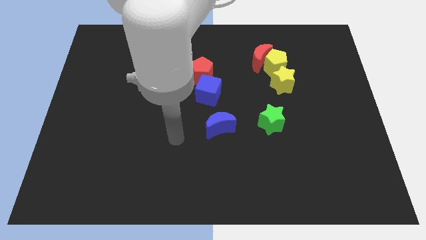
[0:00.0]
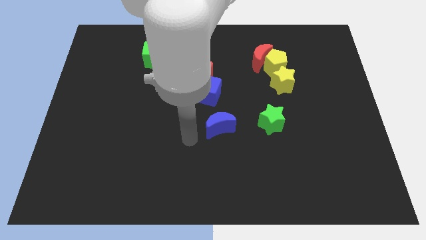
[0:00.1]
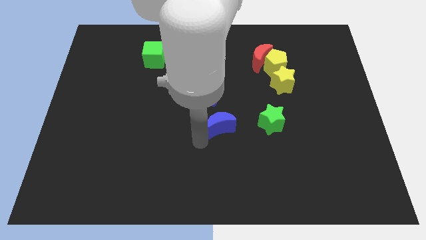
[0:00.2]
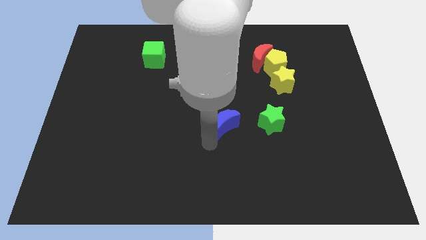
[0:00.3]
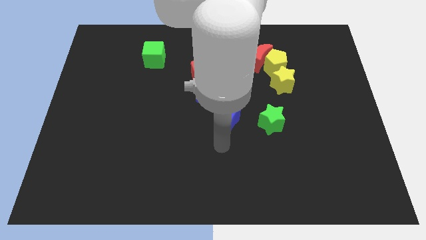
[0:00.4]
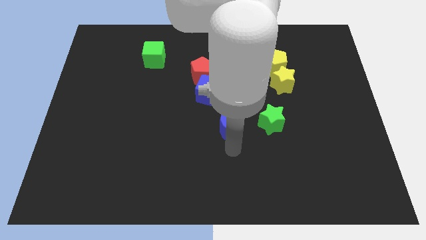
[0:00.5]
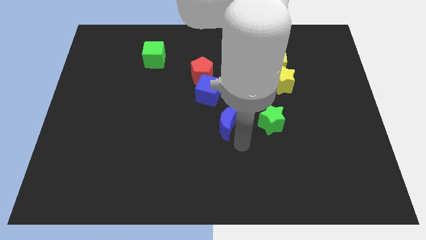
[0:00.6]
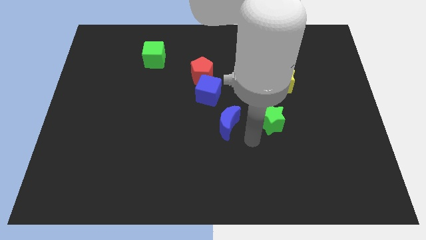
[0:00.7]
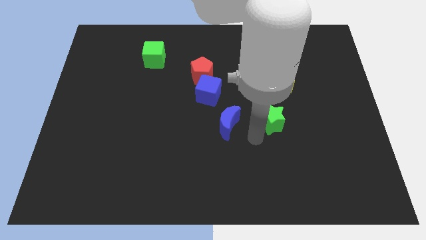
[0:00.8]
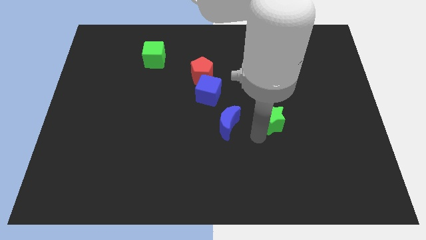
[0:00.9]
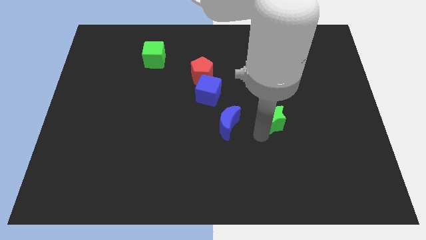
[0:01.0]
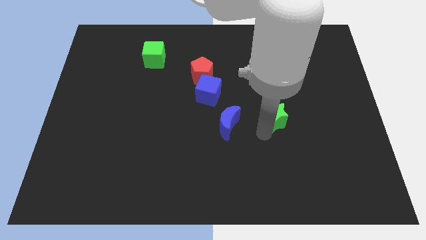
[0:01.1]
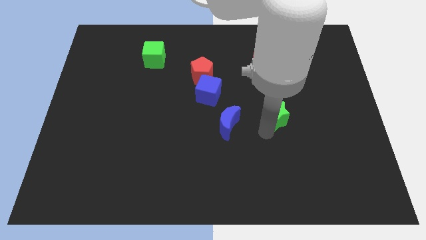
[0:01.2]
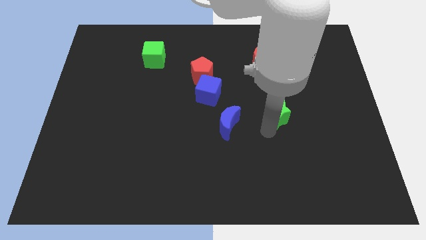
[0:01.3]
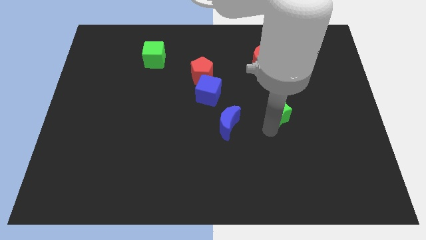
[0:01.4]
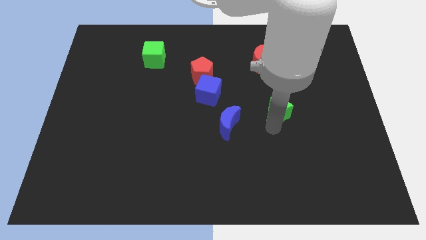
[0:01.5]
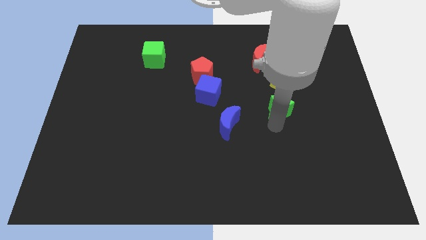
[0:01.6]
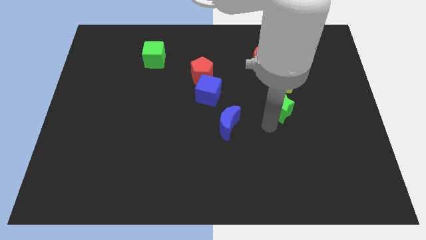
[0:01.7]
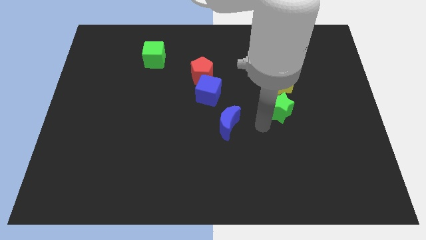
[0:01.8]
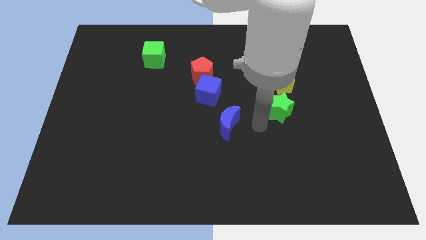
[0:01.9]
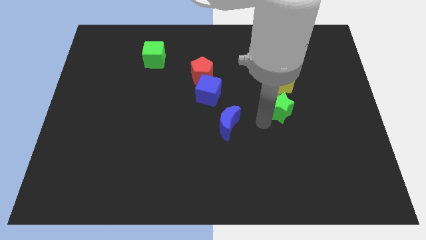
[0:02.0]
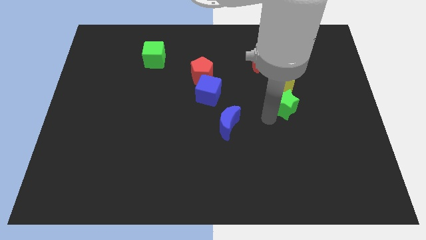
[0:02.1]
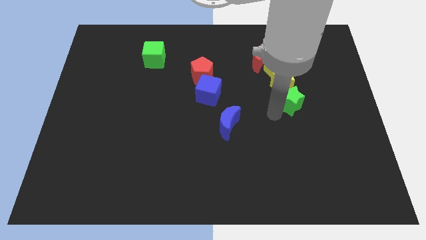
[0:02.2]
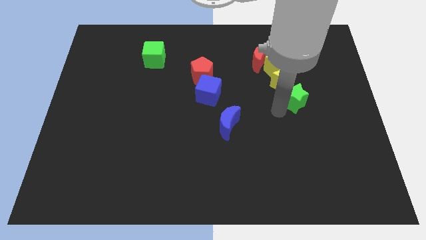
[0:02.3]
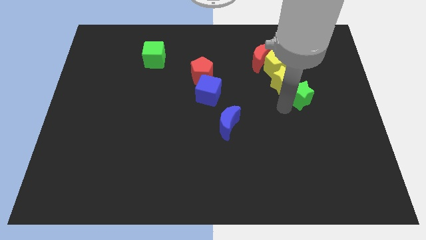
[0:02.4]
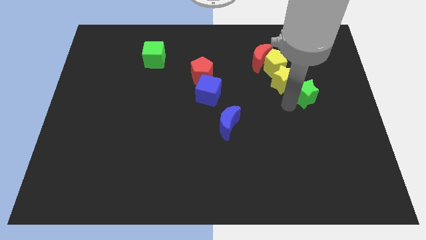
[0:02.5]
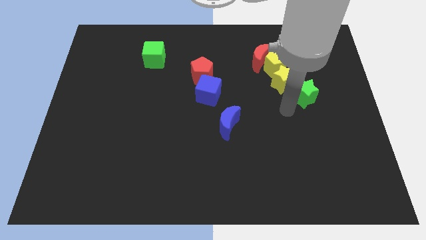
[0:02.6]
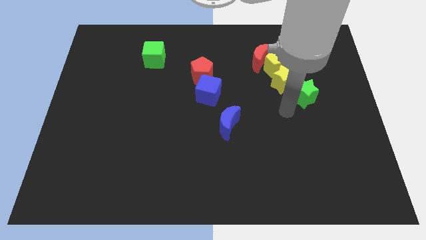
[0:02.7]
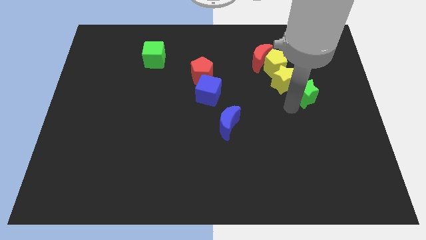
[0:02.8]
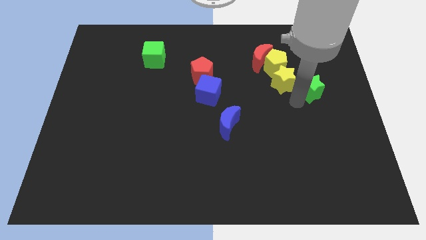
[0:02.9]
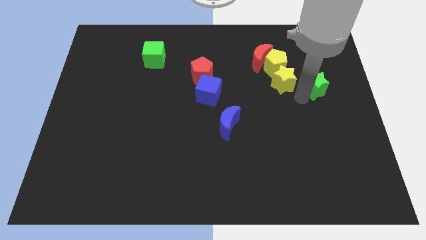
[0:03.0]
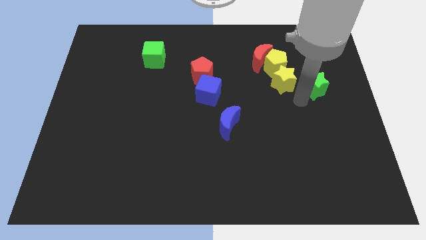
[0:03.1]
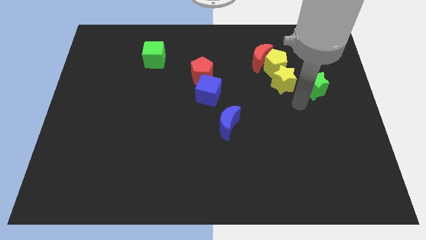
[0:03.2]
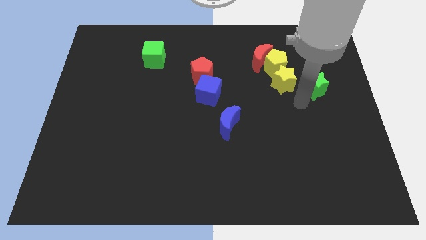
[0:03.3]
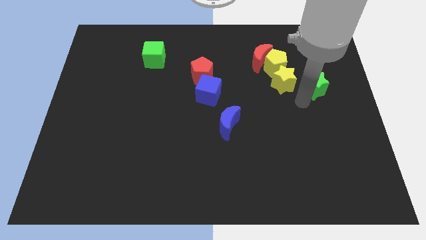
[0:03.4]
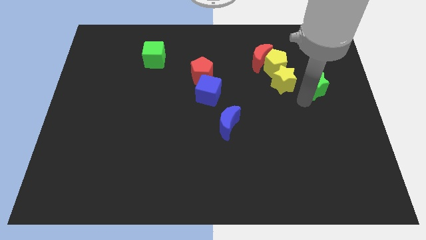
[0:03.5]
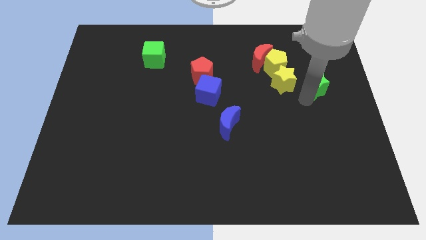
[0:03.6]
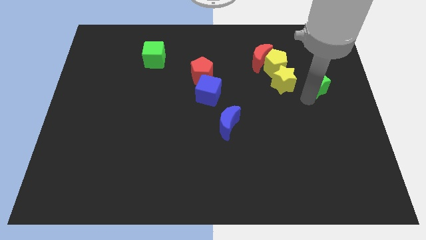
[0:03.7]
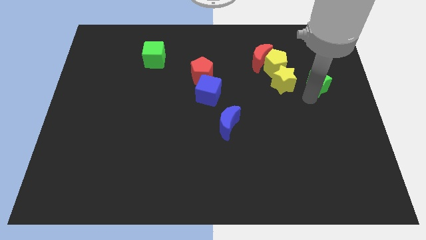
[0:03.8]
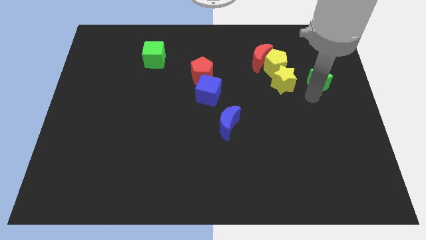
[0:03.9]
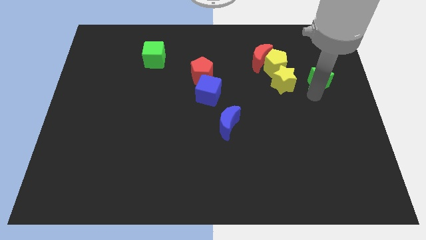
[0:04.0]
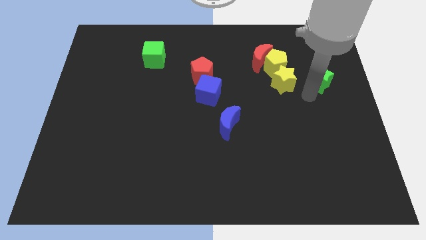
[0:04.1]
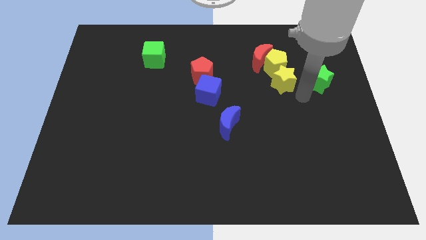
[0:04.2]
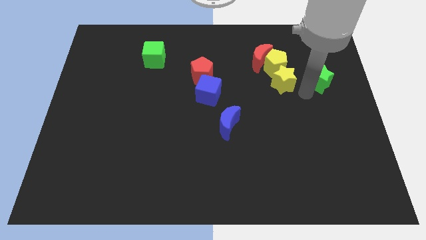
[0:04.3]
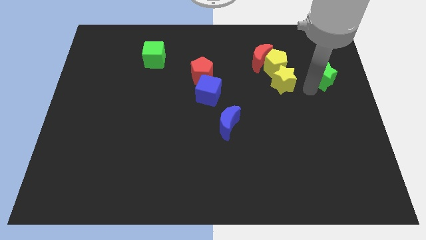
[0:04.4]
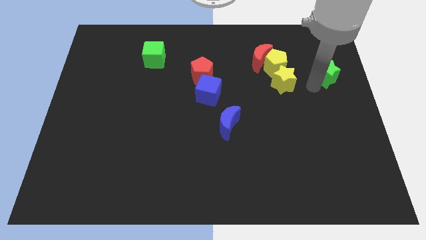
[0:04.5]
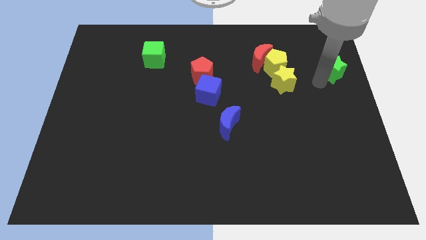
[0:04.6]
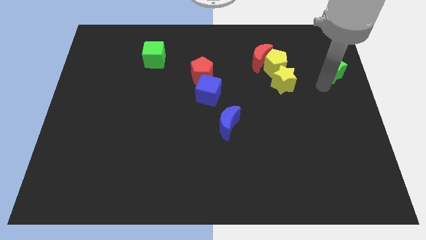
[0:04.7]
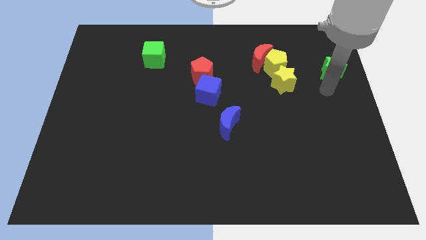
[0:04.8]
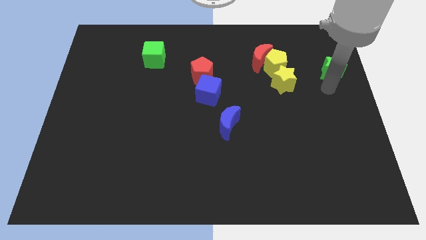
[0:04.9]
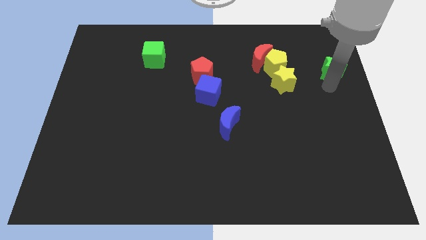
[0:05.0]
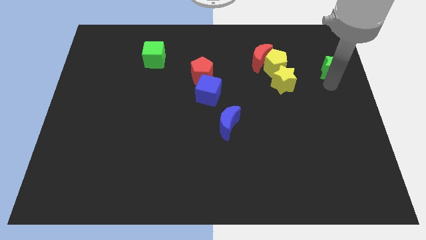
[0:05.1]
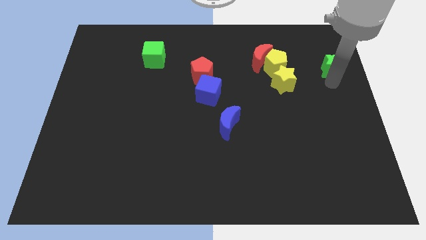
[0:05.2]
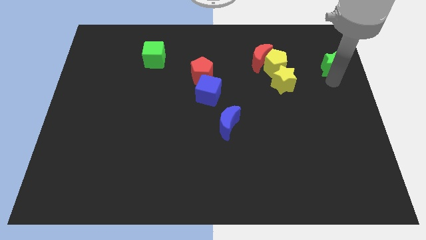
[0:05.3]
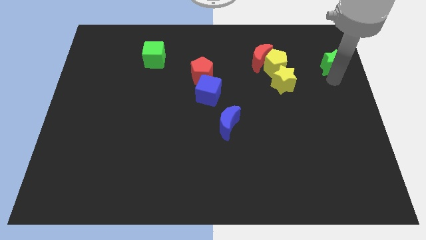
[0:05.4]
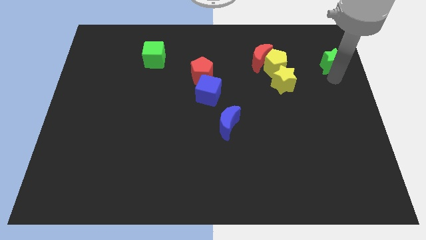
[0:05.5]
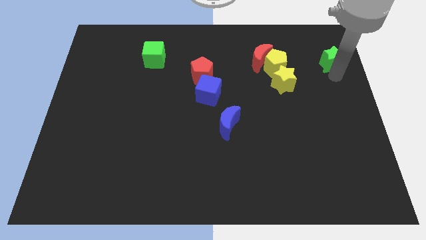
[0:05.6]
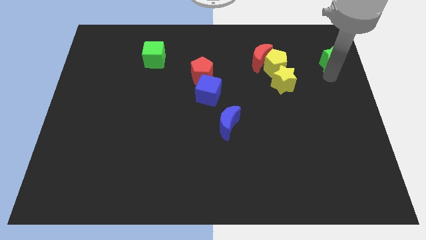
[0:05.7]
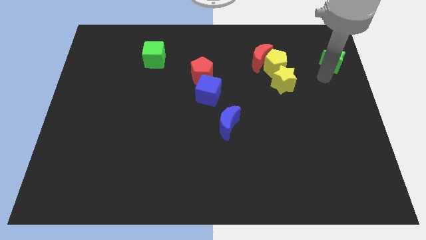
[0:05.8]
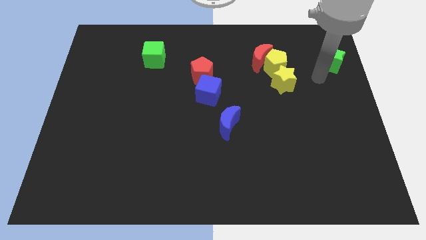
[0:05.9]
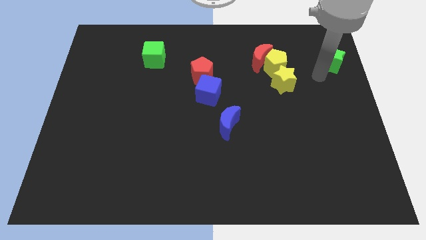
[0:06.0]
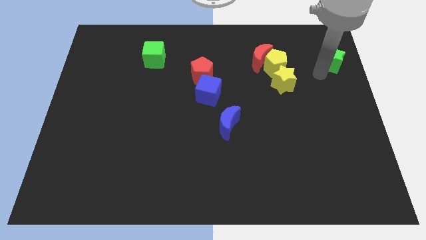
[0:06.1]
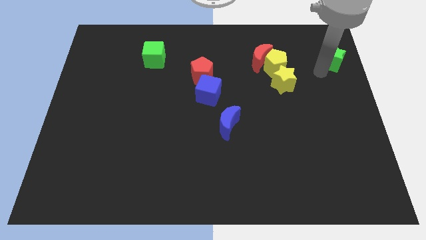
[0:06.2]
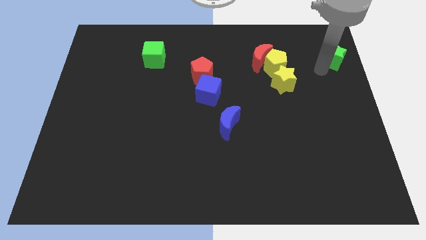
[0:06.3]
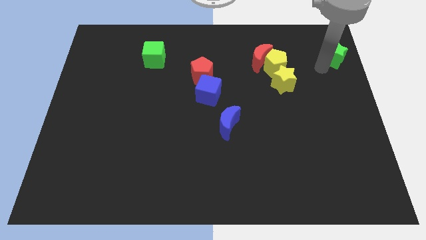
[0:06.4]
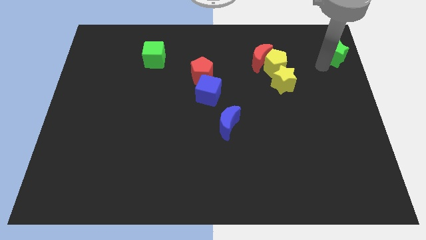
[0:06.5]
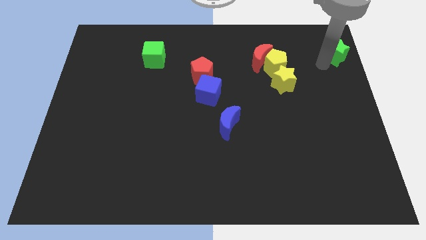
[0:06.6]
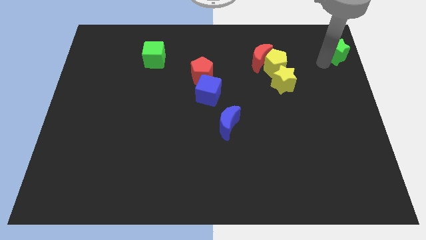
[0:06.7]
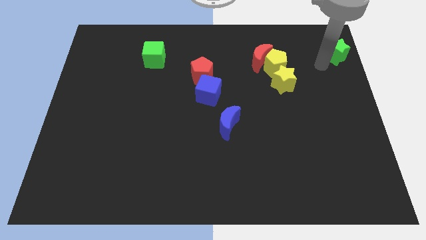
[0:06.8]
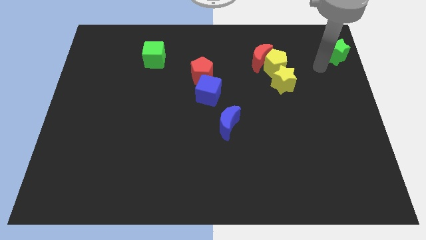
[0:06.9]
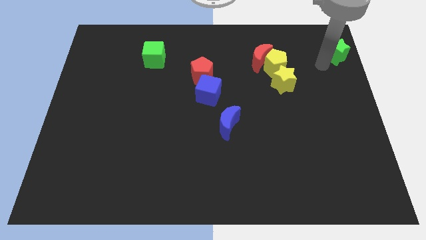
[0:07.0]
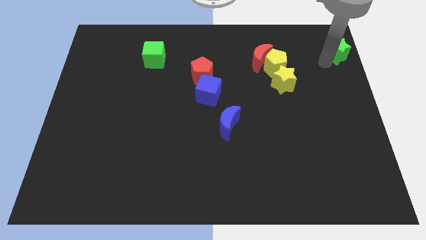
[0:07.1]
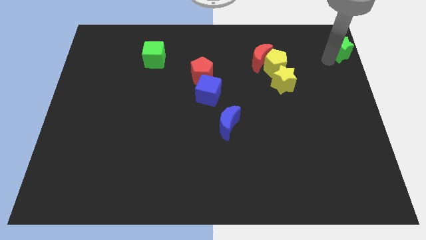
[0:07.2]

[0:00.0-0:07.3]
put the green star to the top right of the board
